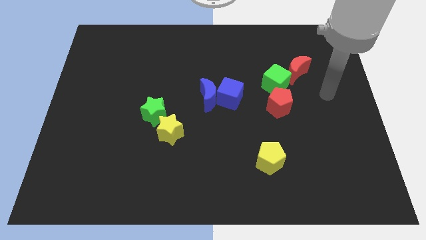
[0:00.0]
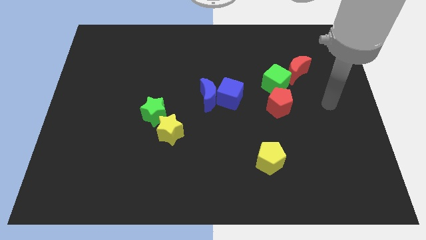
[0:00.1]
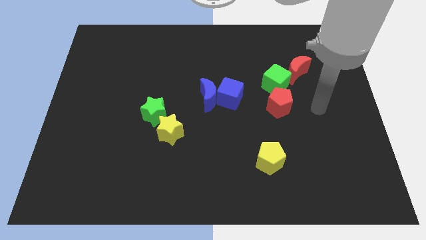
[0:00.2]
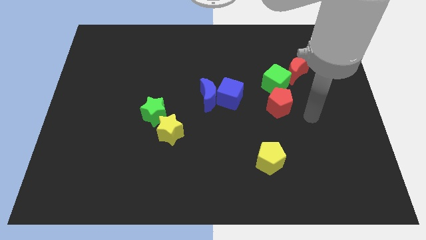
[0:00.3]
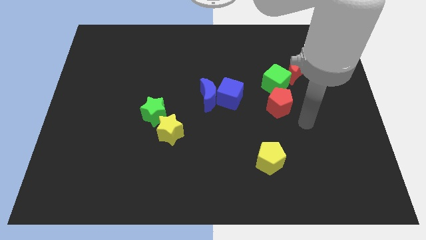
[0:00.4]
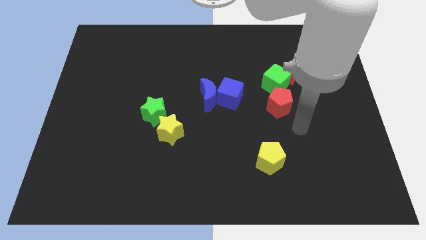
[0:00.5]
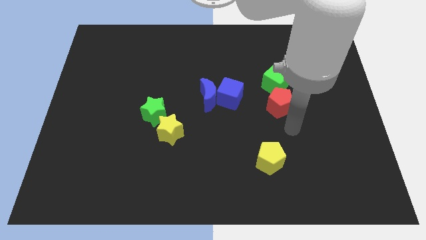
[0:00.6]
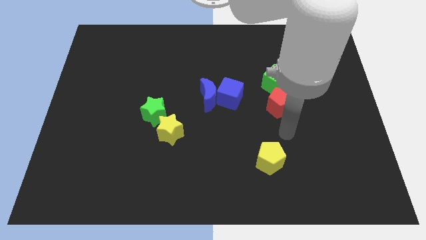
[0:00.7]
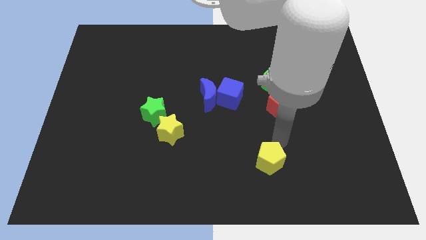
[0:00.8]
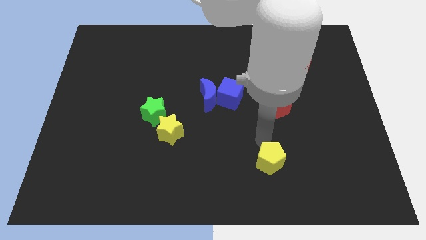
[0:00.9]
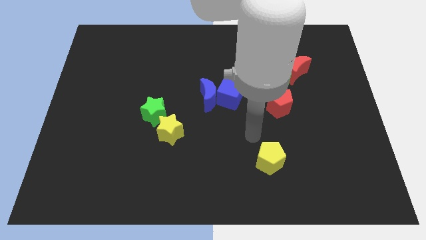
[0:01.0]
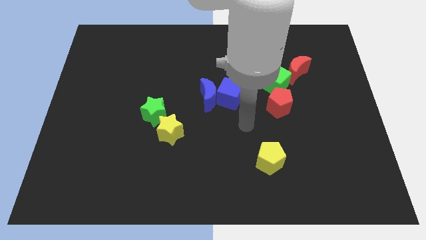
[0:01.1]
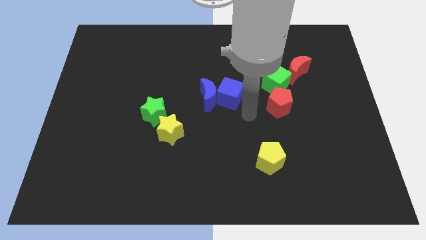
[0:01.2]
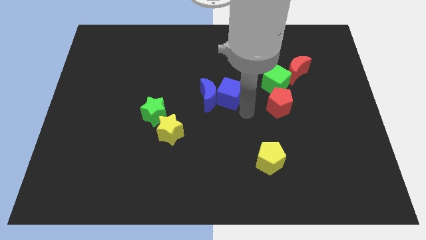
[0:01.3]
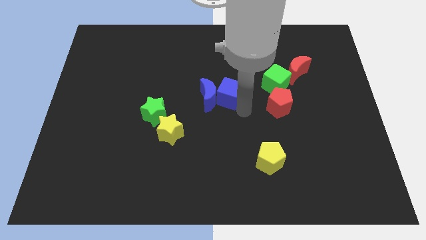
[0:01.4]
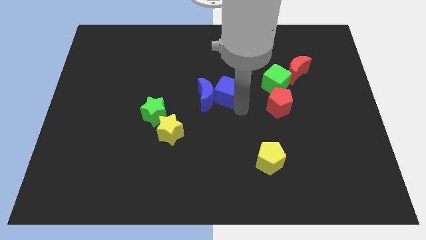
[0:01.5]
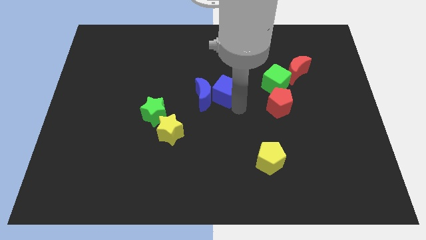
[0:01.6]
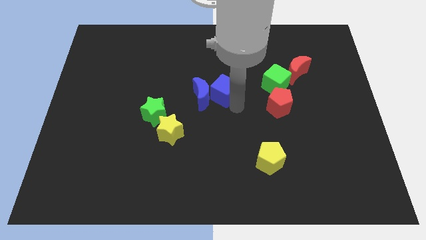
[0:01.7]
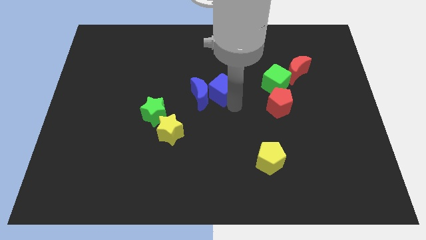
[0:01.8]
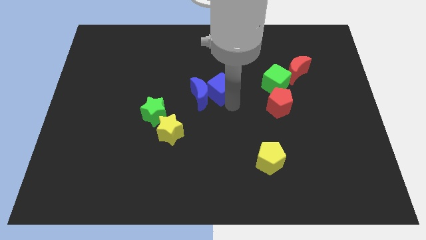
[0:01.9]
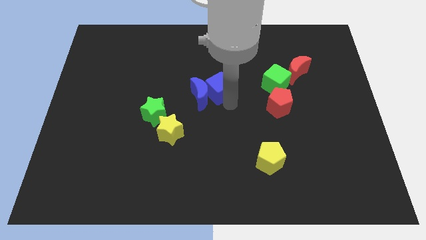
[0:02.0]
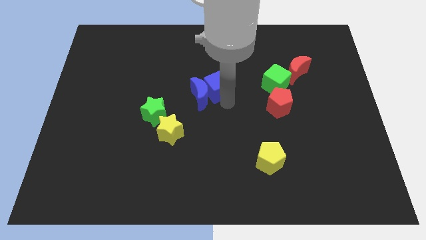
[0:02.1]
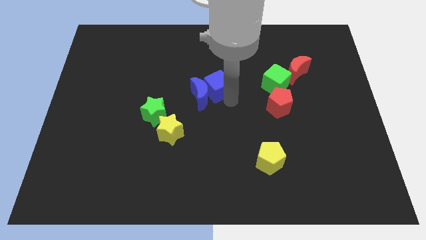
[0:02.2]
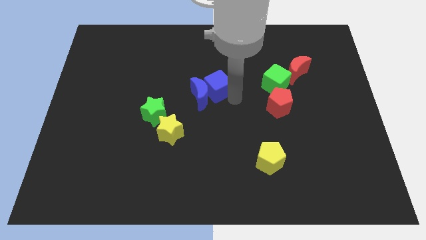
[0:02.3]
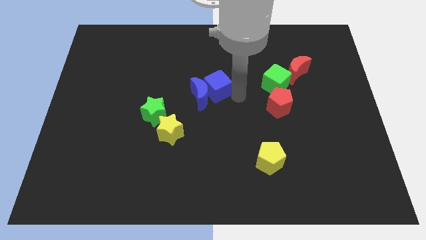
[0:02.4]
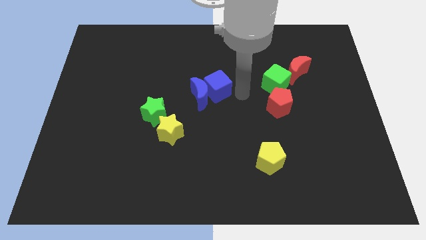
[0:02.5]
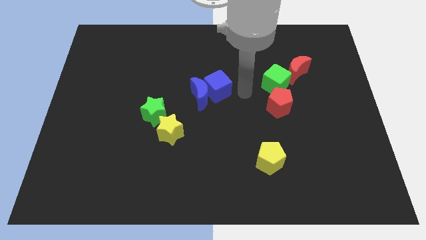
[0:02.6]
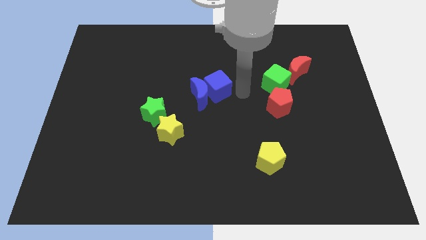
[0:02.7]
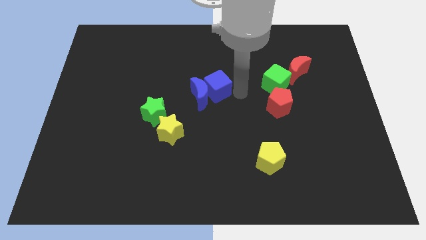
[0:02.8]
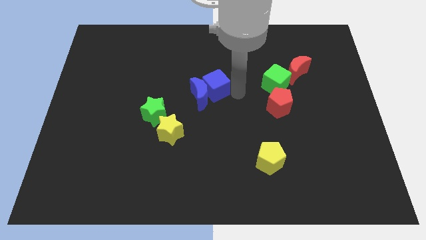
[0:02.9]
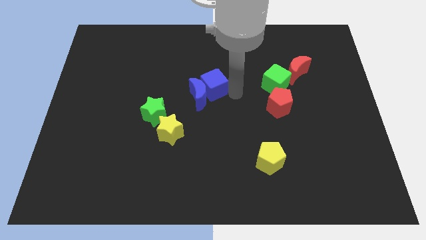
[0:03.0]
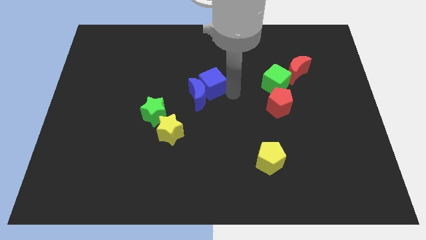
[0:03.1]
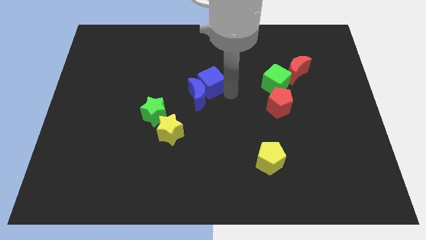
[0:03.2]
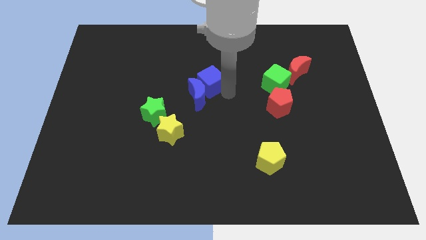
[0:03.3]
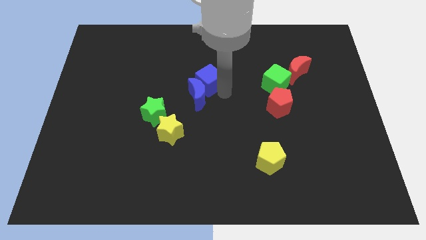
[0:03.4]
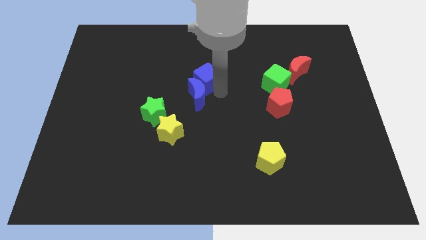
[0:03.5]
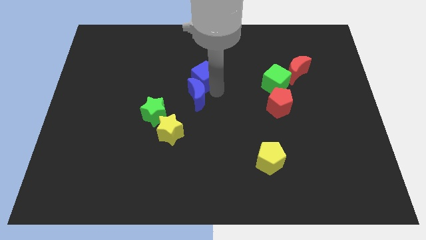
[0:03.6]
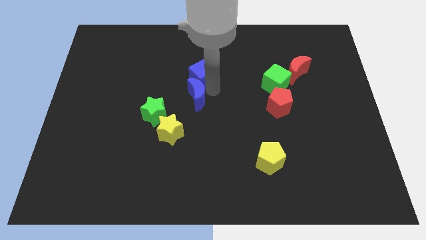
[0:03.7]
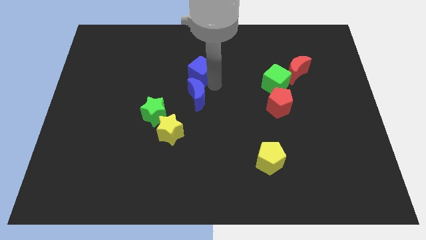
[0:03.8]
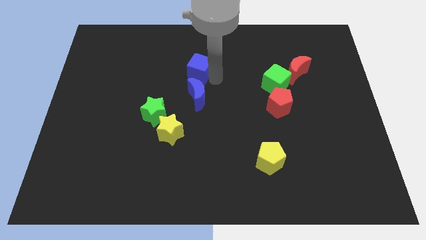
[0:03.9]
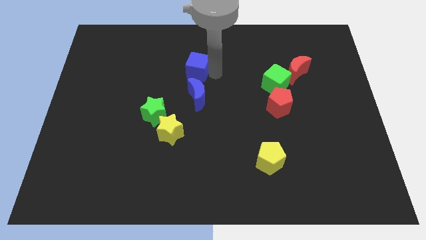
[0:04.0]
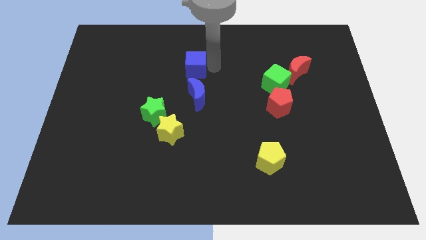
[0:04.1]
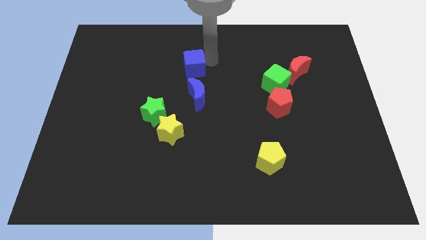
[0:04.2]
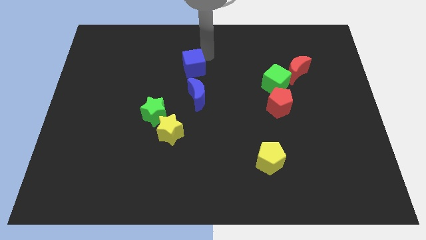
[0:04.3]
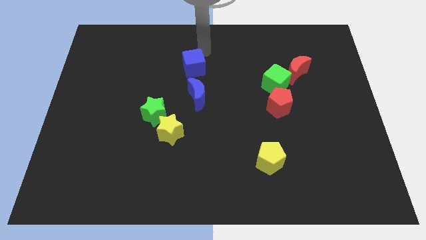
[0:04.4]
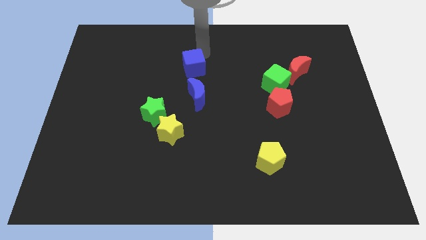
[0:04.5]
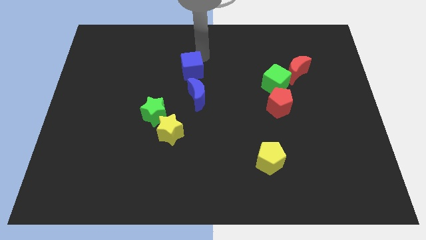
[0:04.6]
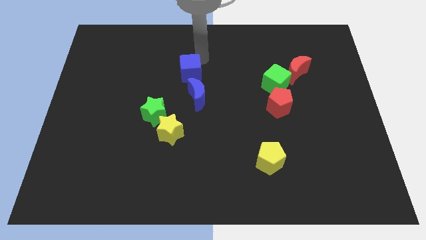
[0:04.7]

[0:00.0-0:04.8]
push the blue cube to the left a bit

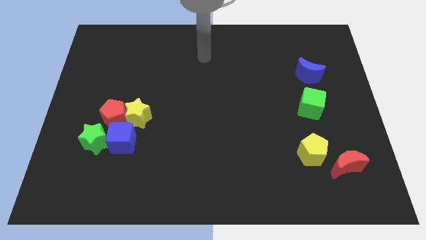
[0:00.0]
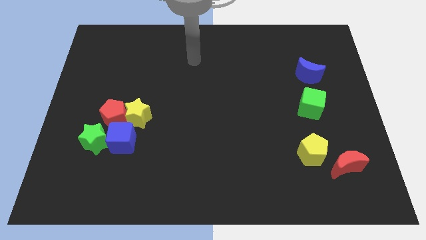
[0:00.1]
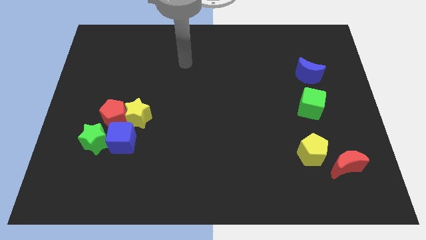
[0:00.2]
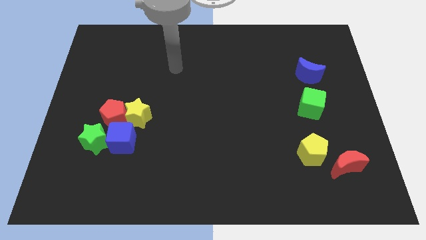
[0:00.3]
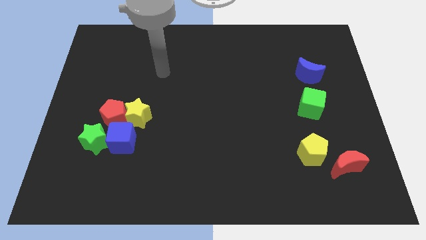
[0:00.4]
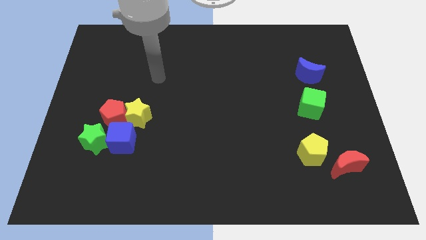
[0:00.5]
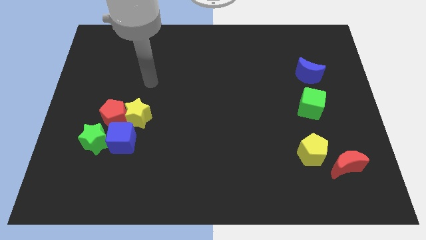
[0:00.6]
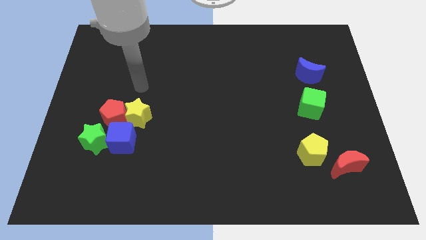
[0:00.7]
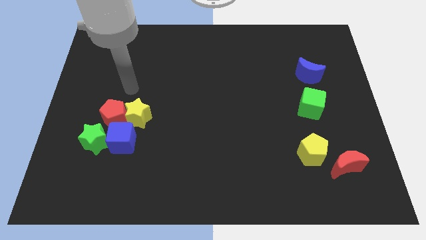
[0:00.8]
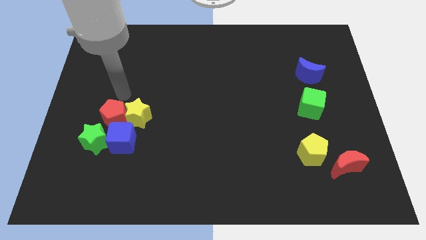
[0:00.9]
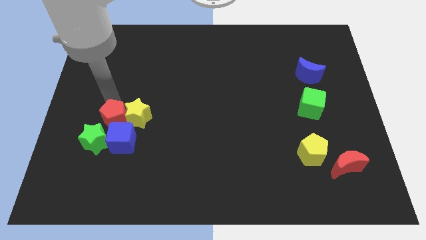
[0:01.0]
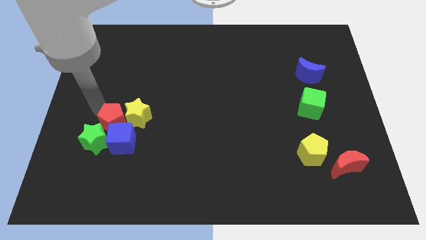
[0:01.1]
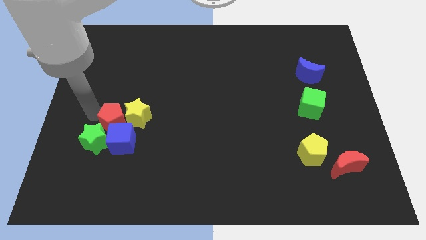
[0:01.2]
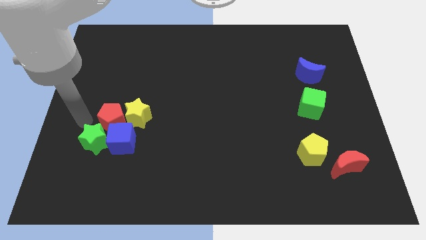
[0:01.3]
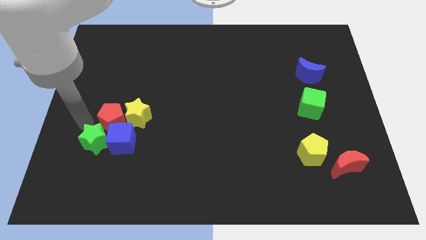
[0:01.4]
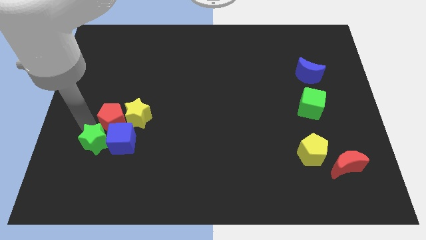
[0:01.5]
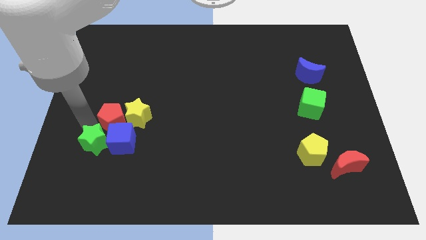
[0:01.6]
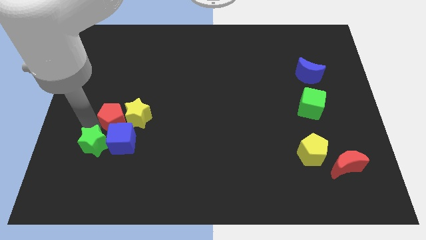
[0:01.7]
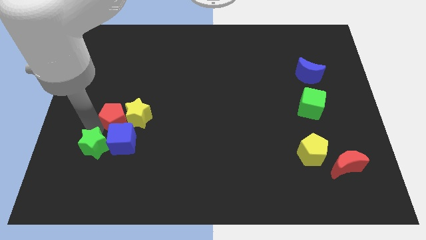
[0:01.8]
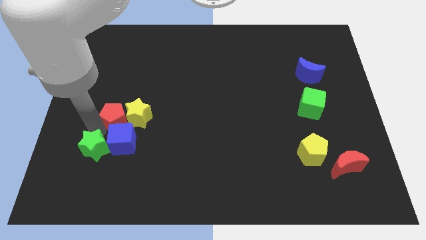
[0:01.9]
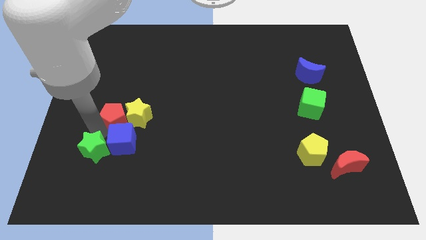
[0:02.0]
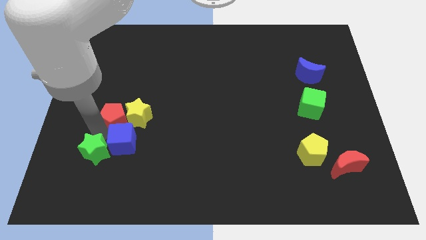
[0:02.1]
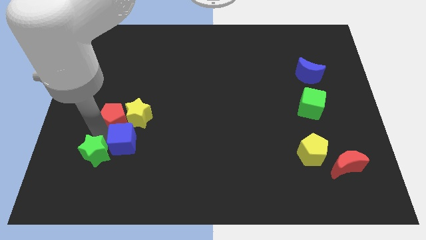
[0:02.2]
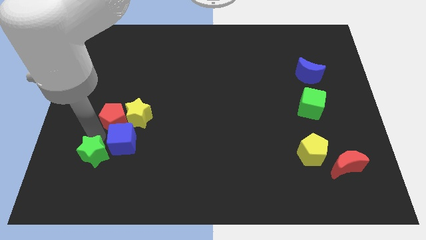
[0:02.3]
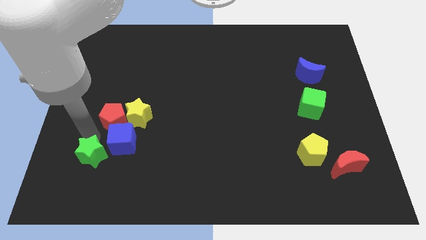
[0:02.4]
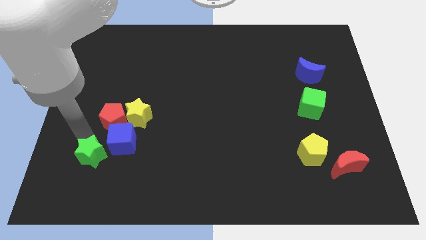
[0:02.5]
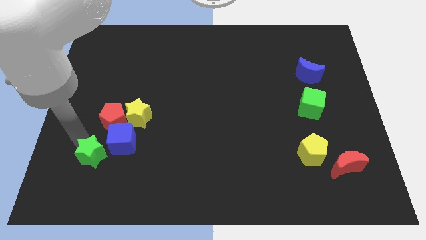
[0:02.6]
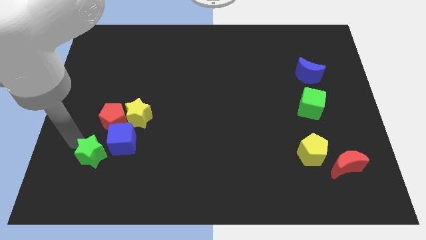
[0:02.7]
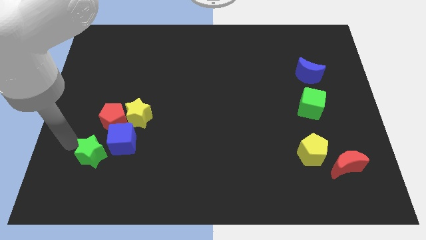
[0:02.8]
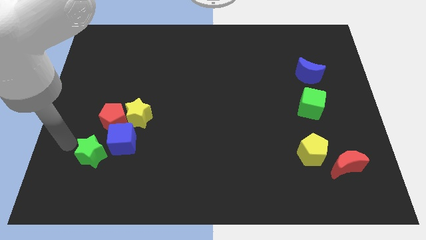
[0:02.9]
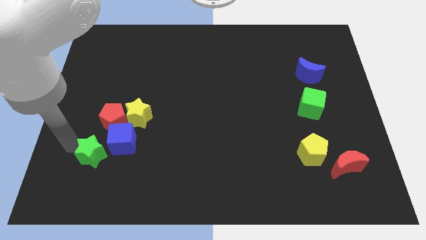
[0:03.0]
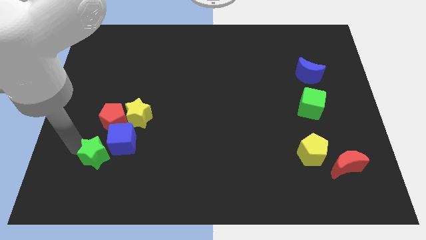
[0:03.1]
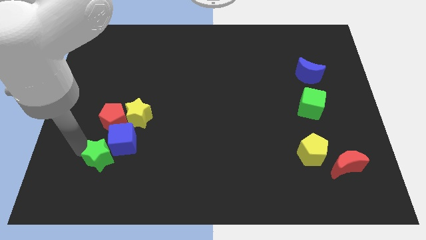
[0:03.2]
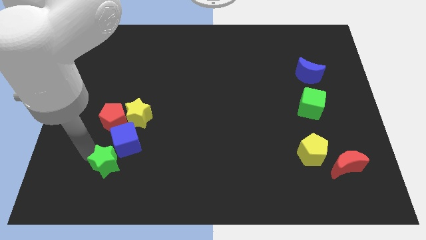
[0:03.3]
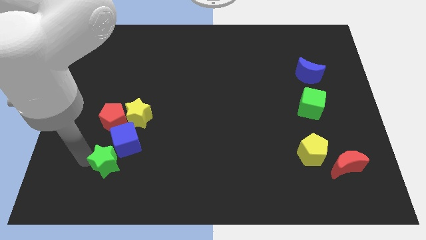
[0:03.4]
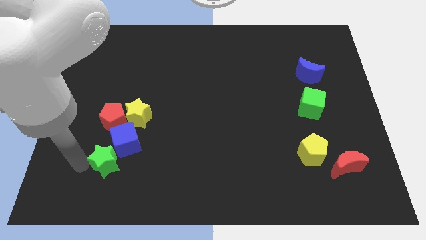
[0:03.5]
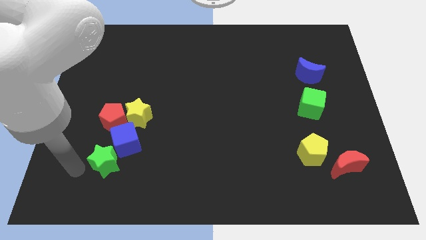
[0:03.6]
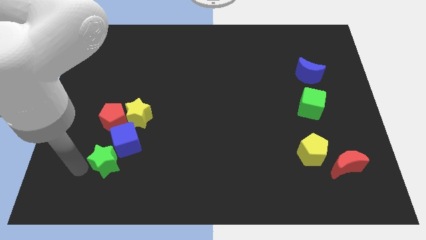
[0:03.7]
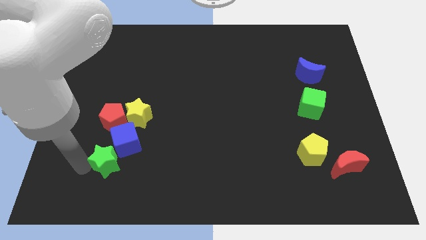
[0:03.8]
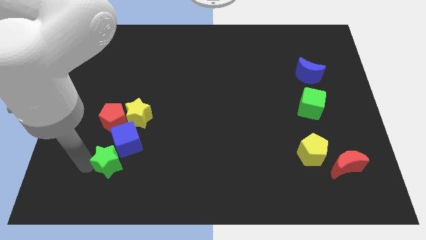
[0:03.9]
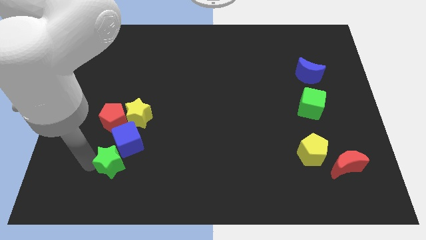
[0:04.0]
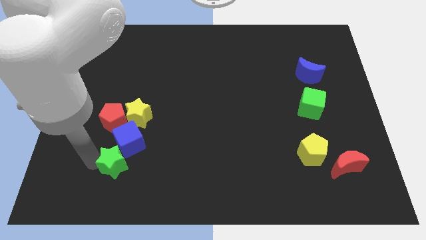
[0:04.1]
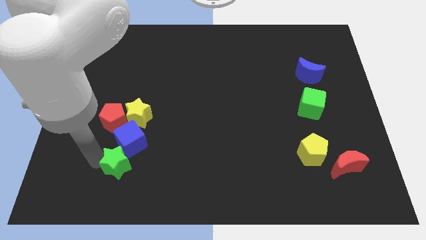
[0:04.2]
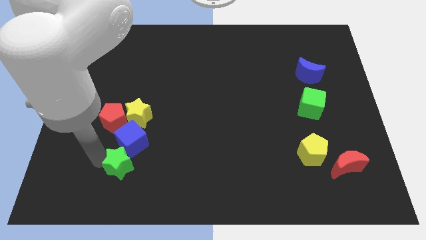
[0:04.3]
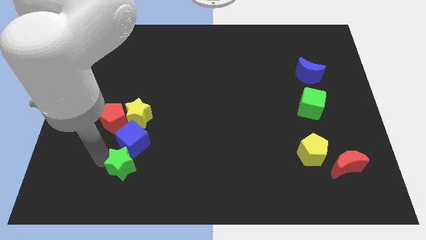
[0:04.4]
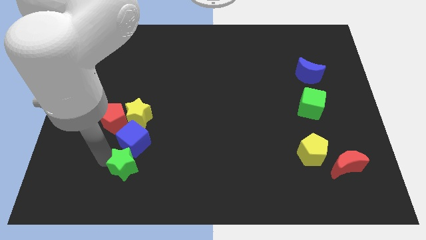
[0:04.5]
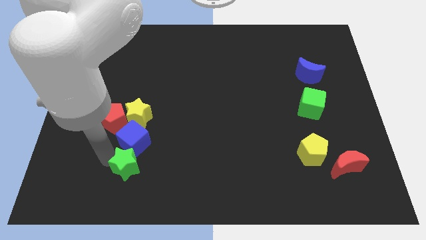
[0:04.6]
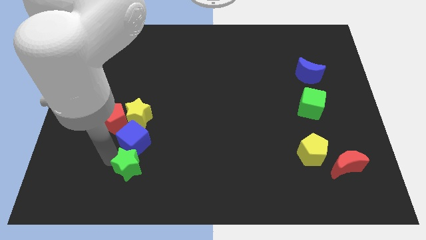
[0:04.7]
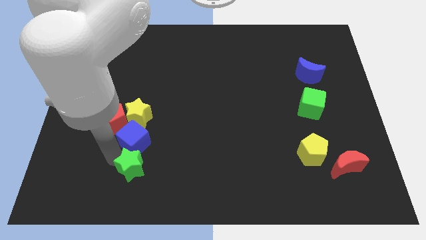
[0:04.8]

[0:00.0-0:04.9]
push the green star somewhat right
